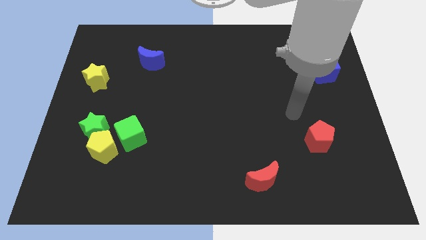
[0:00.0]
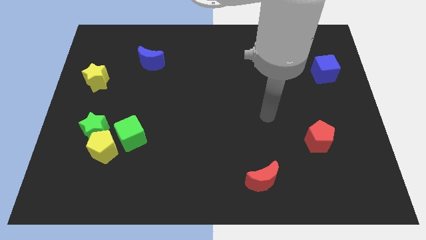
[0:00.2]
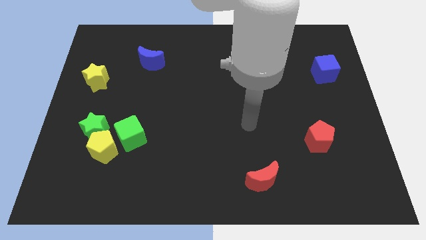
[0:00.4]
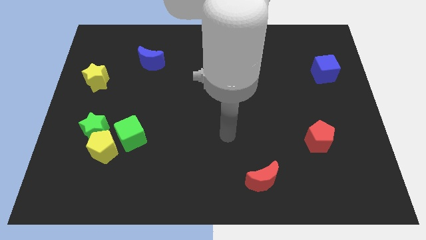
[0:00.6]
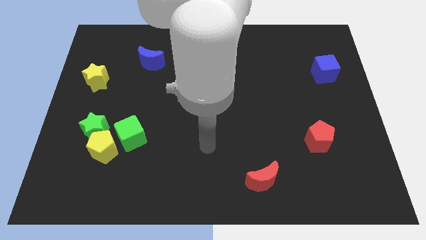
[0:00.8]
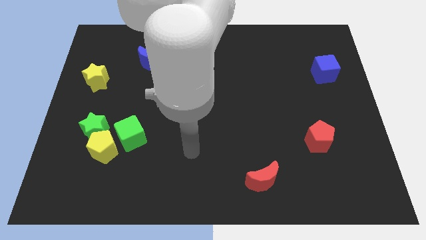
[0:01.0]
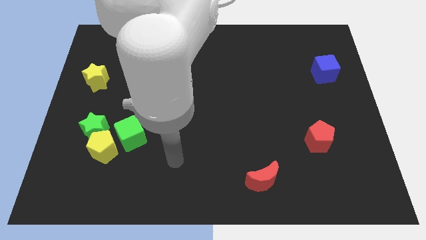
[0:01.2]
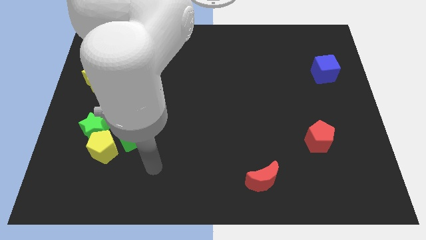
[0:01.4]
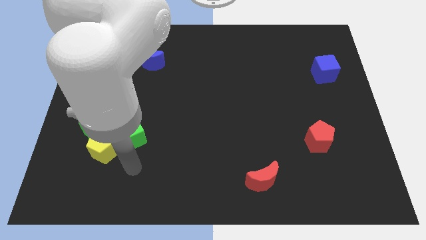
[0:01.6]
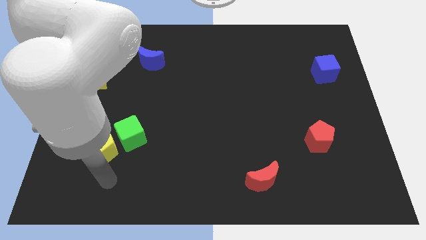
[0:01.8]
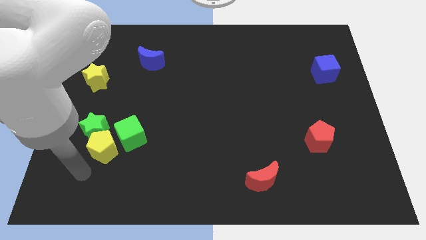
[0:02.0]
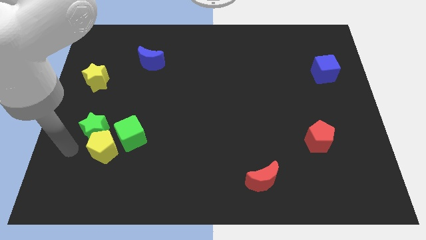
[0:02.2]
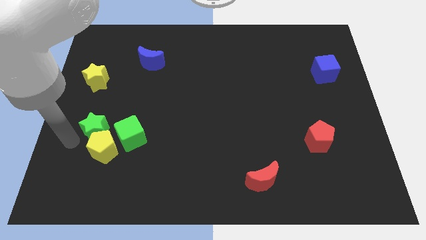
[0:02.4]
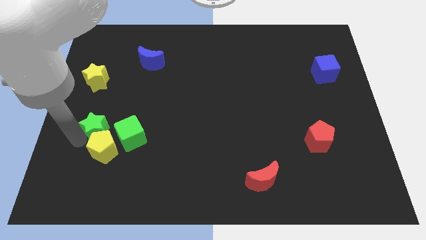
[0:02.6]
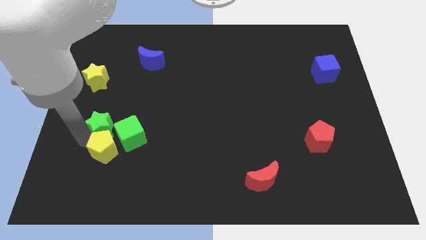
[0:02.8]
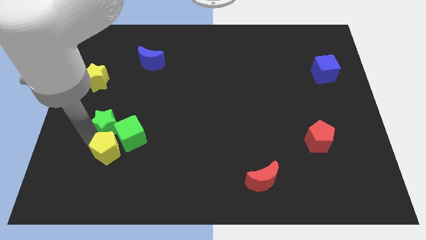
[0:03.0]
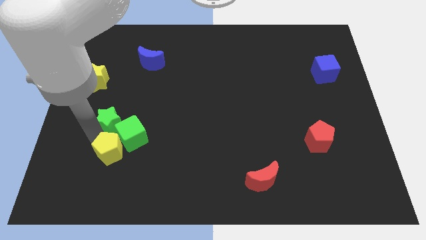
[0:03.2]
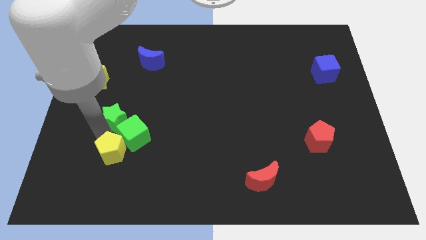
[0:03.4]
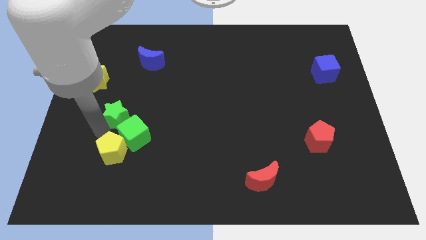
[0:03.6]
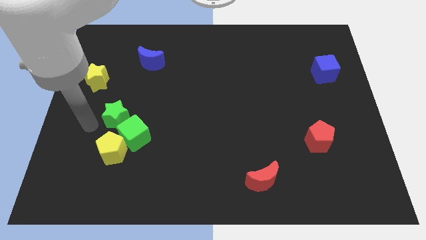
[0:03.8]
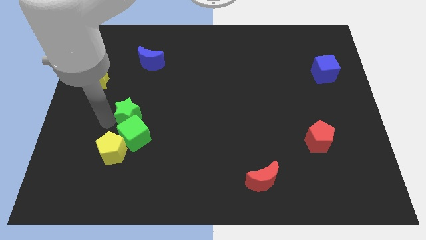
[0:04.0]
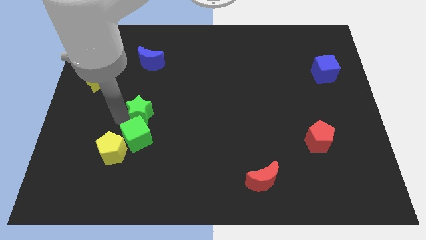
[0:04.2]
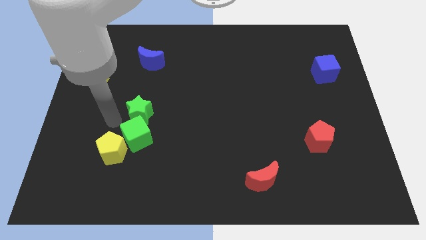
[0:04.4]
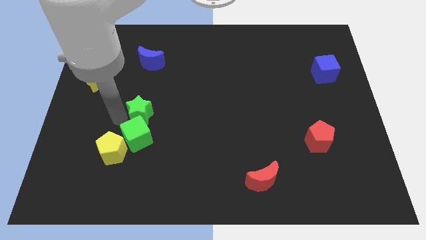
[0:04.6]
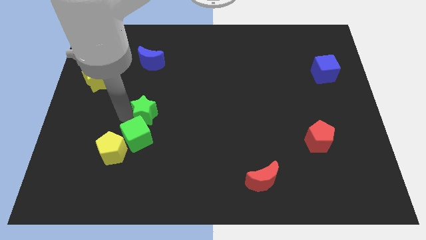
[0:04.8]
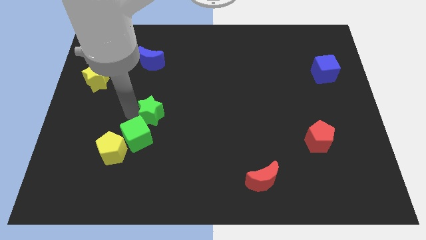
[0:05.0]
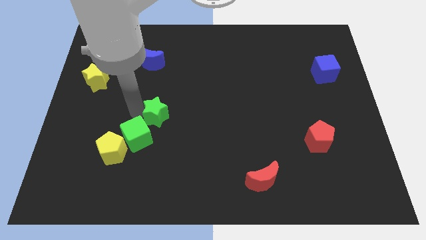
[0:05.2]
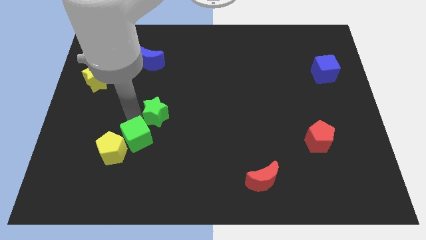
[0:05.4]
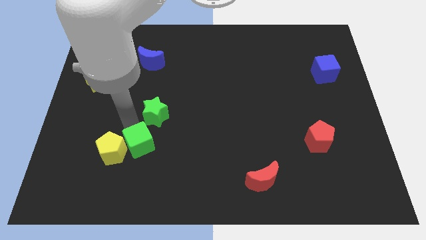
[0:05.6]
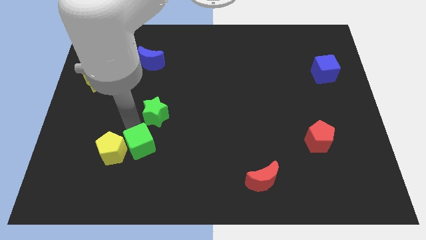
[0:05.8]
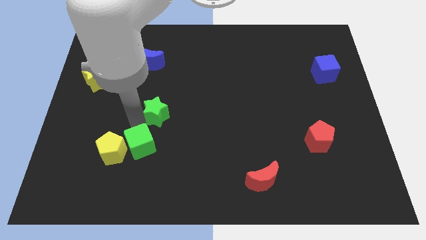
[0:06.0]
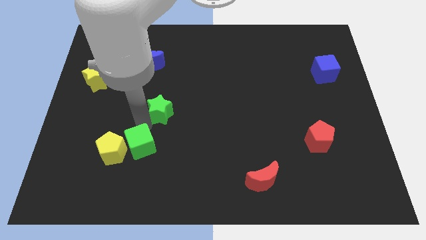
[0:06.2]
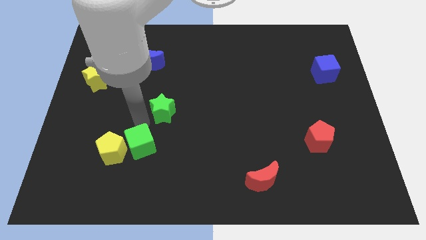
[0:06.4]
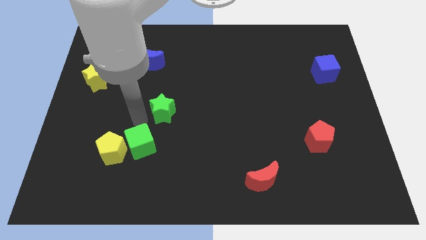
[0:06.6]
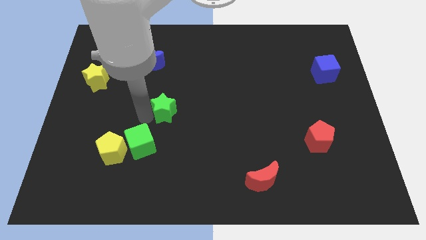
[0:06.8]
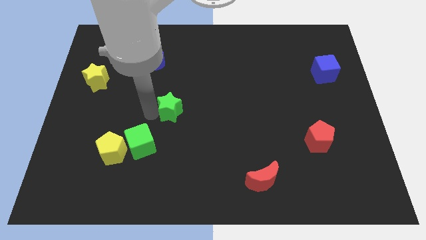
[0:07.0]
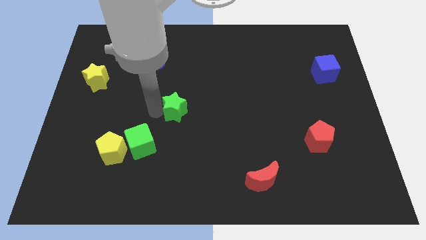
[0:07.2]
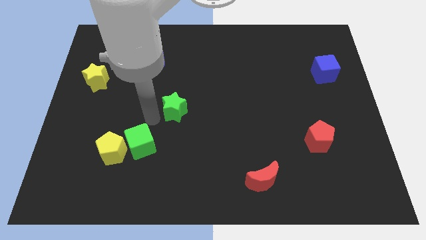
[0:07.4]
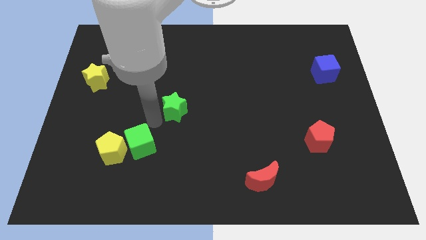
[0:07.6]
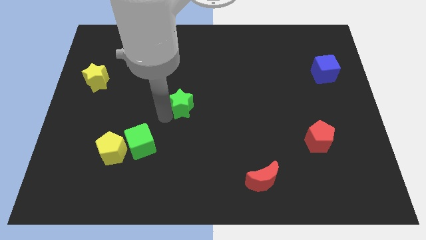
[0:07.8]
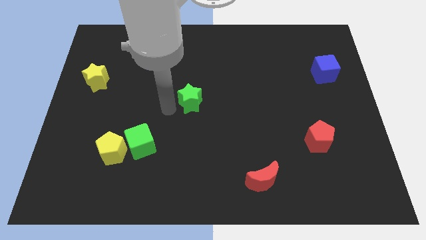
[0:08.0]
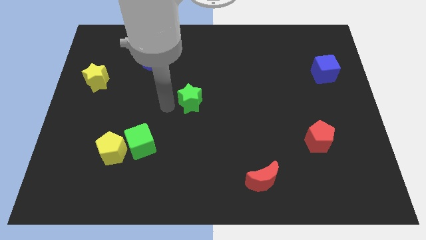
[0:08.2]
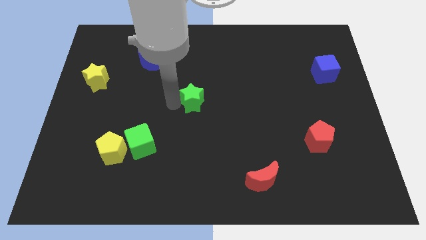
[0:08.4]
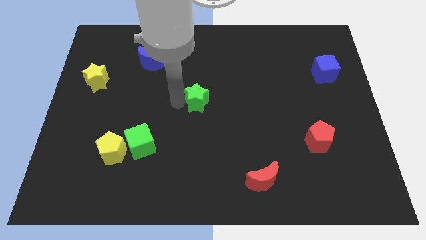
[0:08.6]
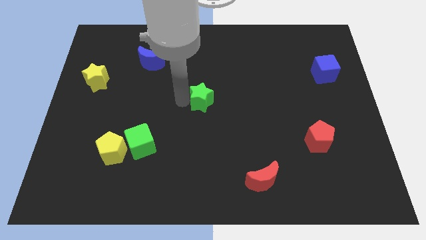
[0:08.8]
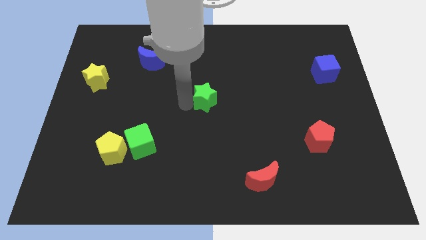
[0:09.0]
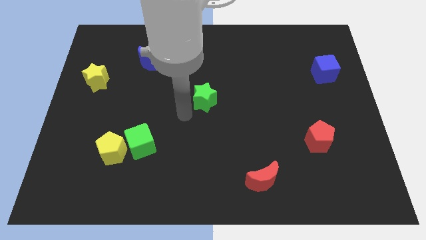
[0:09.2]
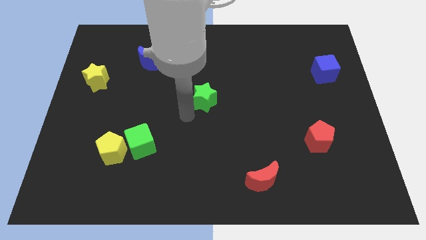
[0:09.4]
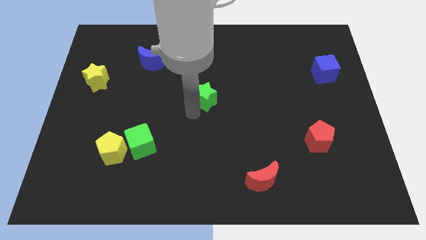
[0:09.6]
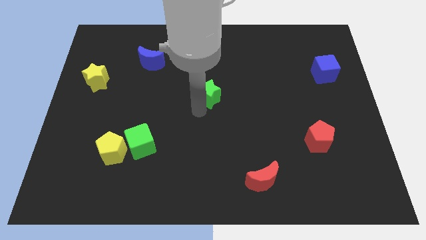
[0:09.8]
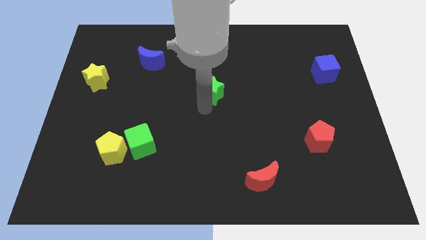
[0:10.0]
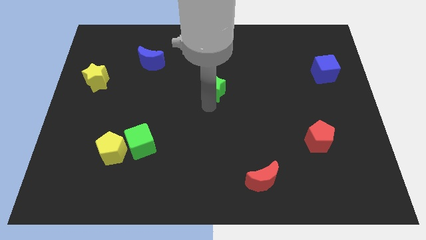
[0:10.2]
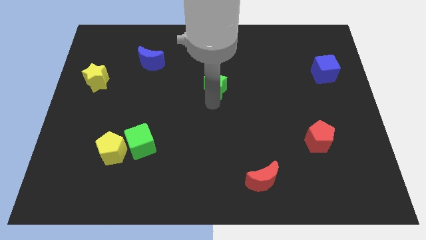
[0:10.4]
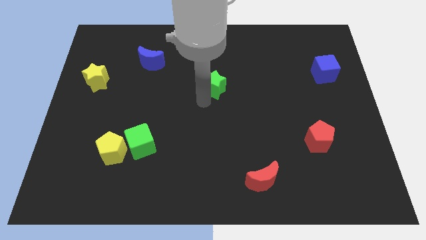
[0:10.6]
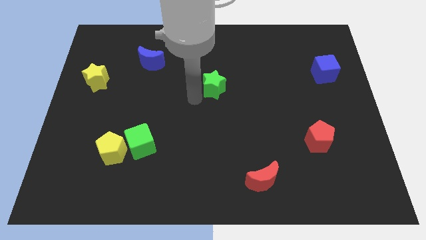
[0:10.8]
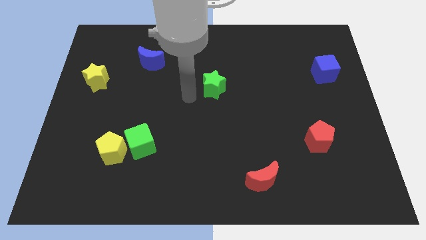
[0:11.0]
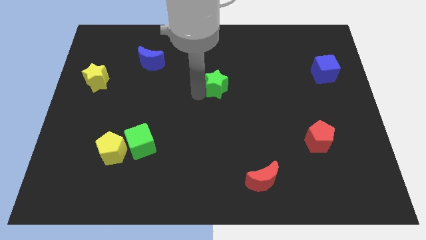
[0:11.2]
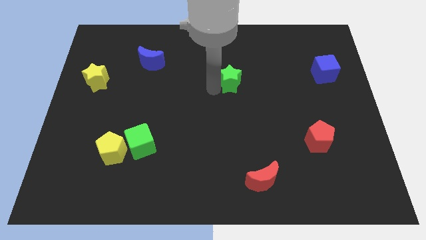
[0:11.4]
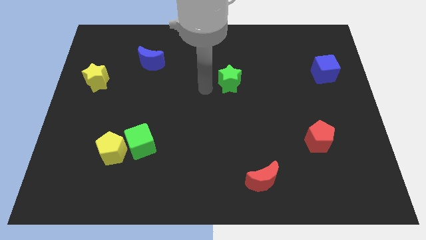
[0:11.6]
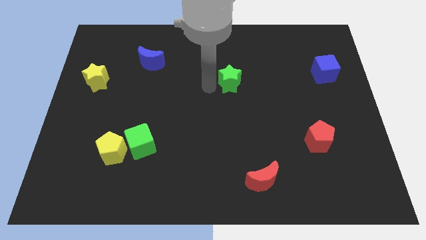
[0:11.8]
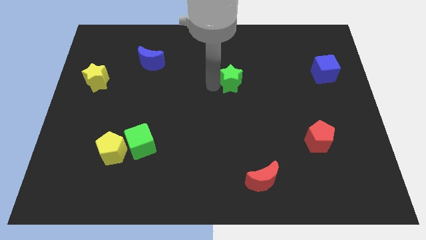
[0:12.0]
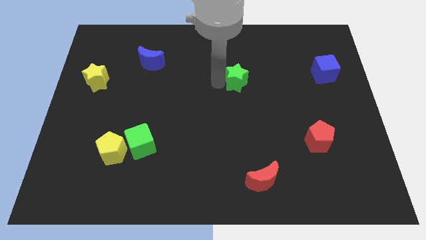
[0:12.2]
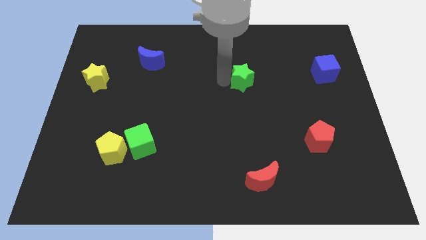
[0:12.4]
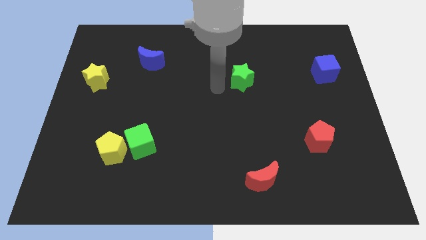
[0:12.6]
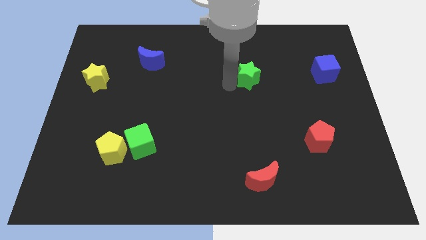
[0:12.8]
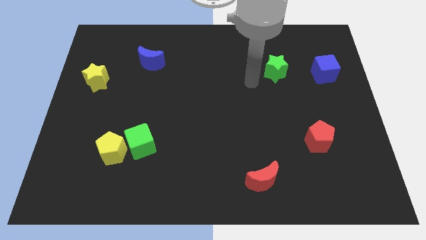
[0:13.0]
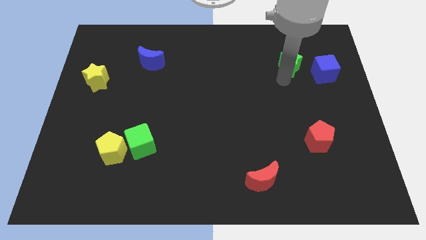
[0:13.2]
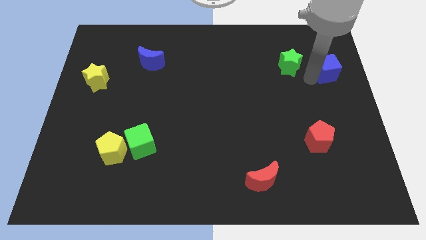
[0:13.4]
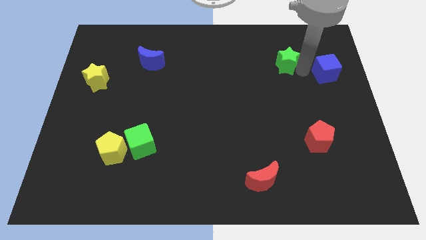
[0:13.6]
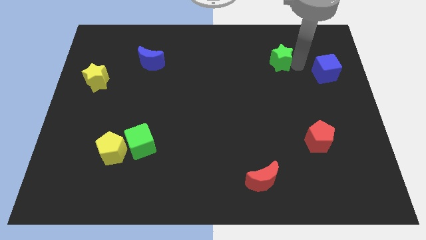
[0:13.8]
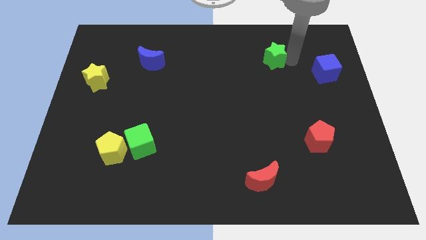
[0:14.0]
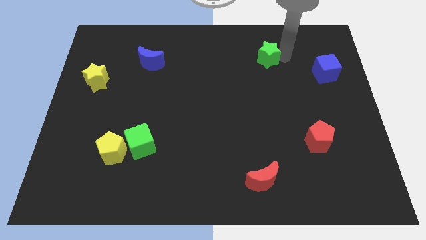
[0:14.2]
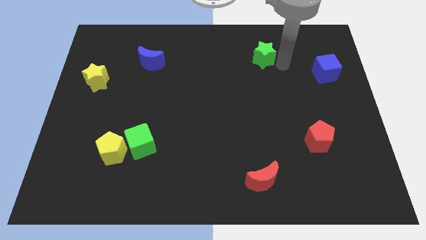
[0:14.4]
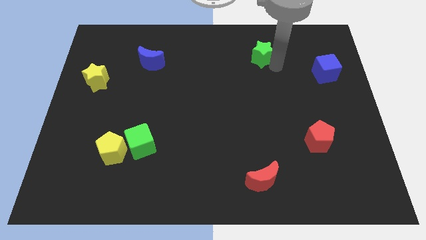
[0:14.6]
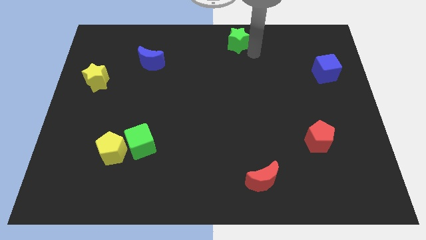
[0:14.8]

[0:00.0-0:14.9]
put the green star to the top
